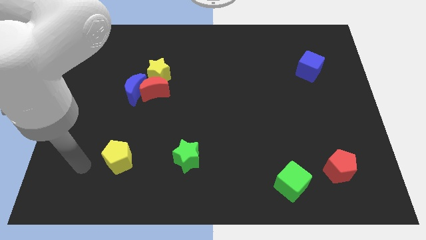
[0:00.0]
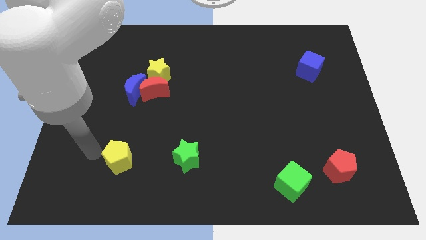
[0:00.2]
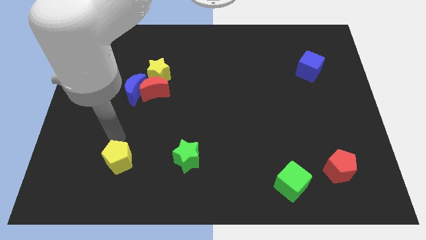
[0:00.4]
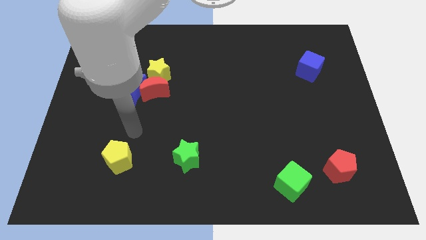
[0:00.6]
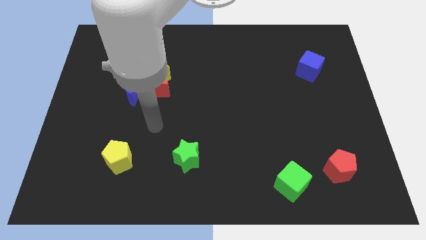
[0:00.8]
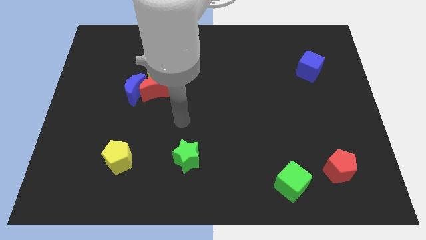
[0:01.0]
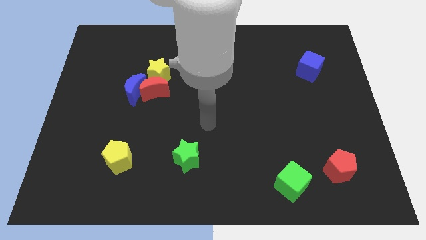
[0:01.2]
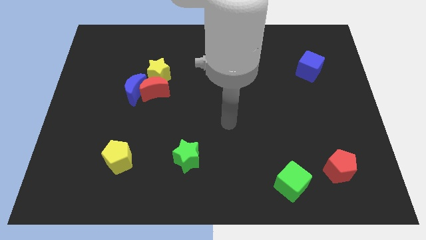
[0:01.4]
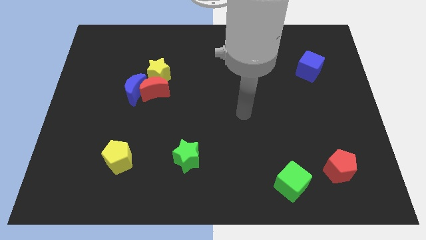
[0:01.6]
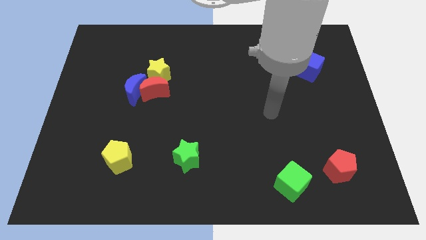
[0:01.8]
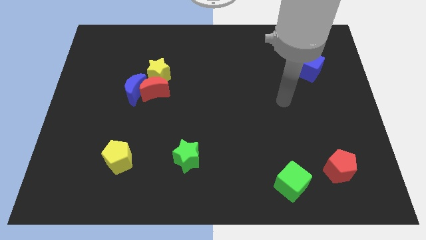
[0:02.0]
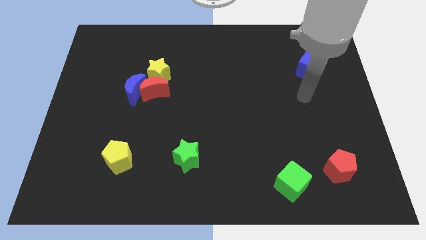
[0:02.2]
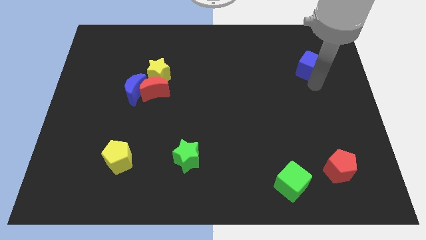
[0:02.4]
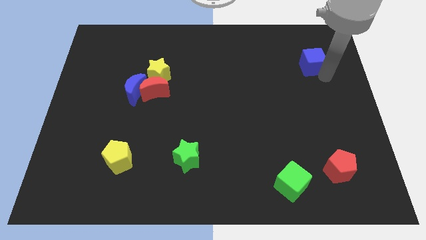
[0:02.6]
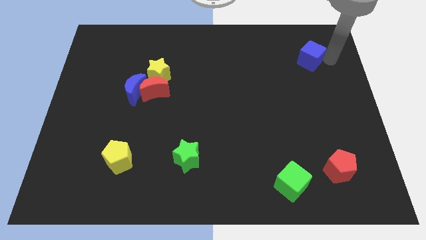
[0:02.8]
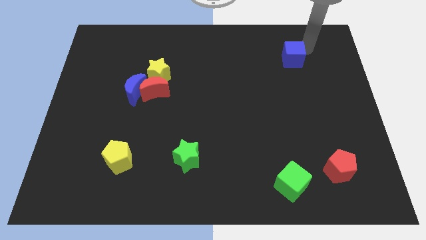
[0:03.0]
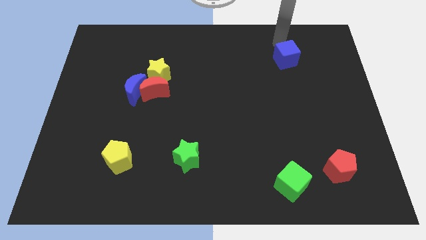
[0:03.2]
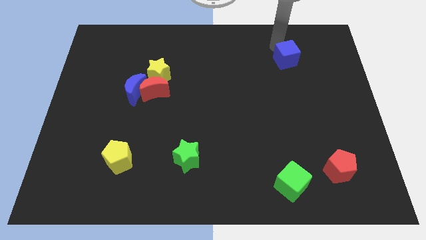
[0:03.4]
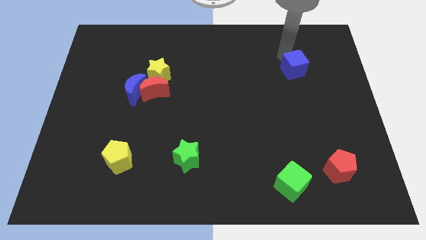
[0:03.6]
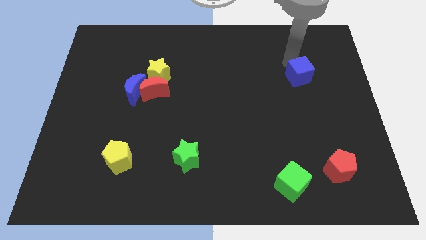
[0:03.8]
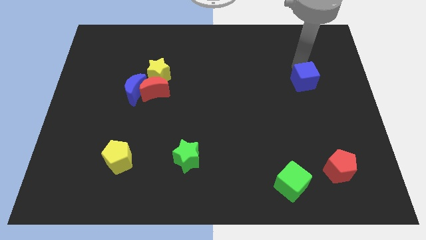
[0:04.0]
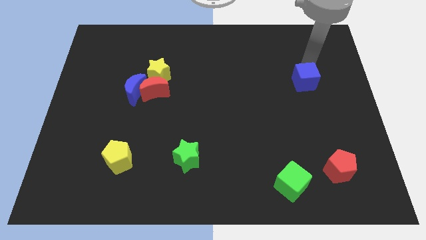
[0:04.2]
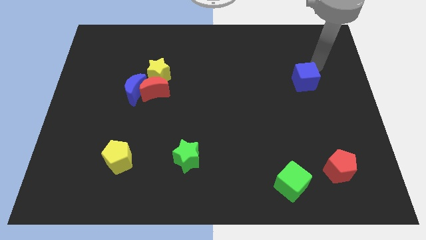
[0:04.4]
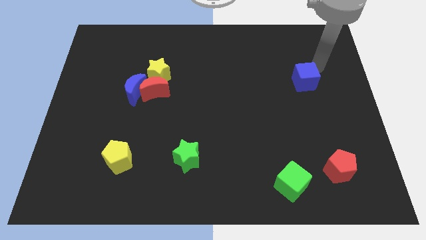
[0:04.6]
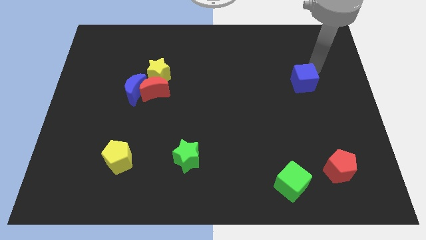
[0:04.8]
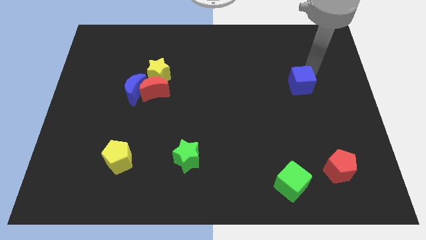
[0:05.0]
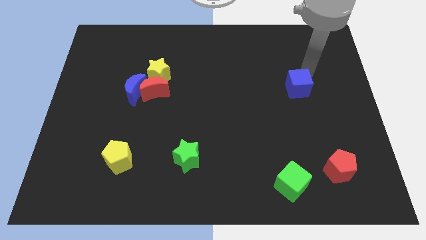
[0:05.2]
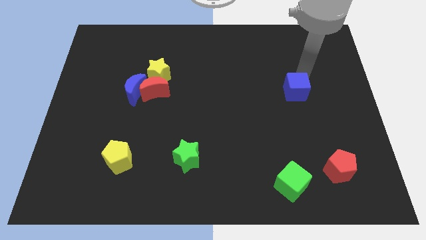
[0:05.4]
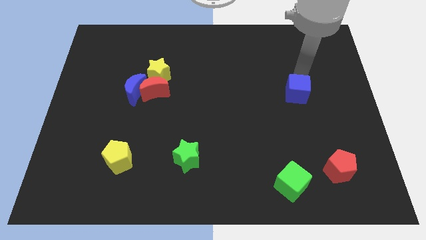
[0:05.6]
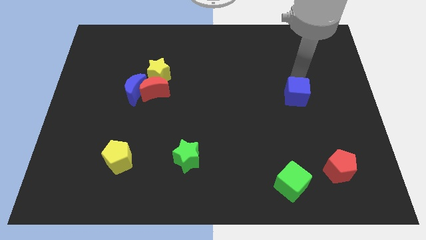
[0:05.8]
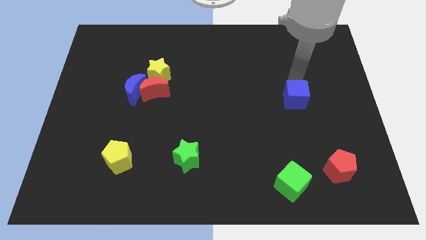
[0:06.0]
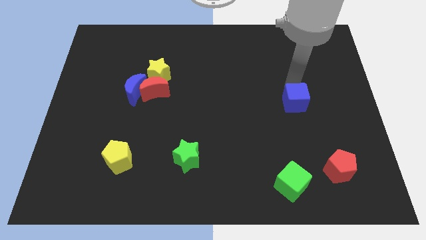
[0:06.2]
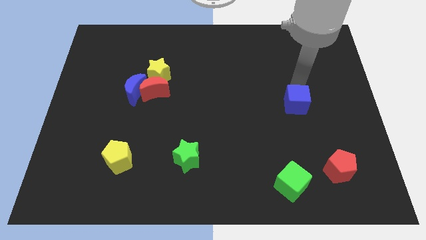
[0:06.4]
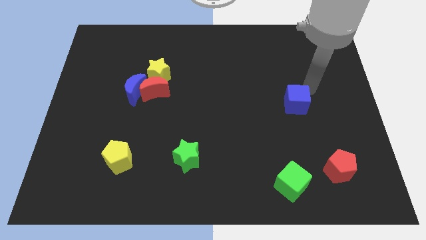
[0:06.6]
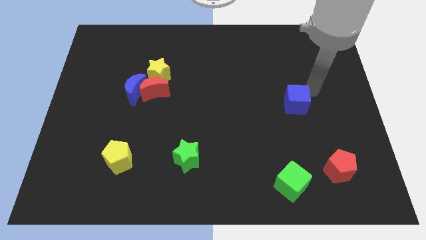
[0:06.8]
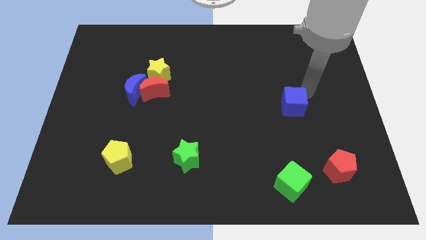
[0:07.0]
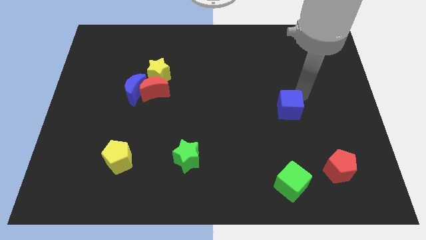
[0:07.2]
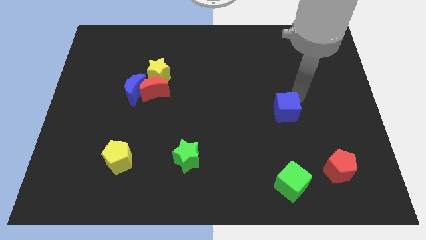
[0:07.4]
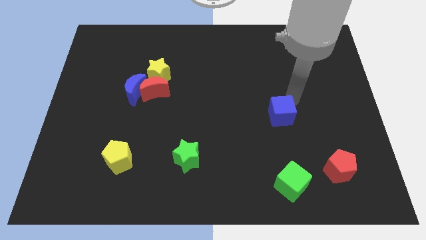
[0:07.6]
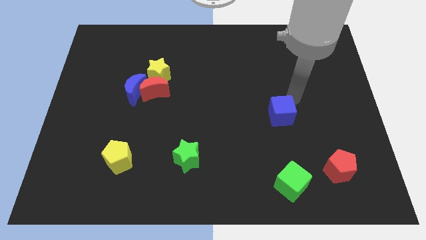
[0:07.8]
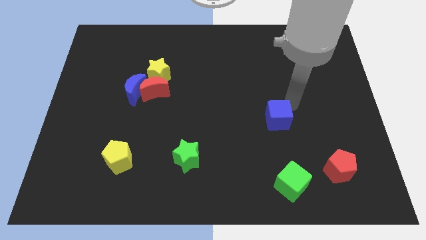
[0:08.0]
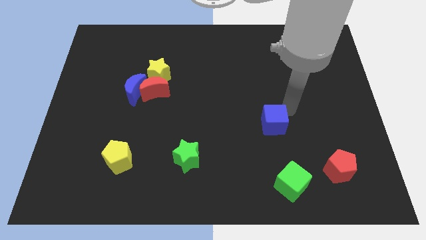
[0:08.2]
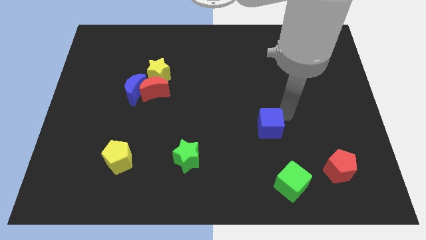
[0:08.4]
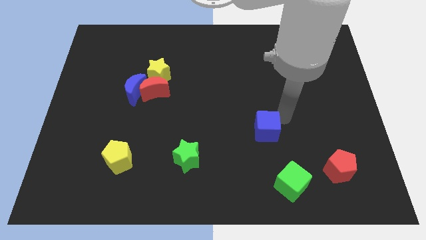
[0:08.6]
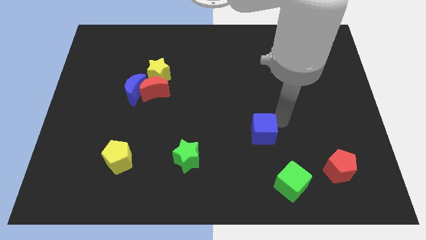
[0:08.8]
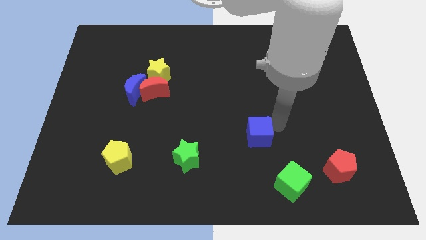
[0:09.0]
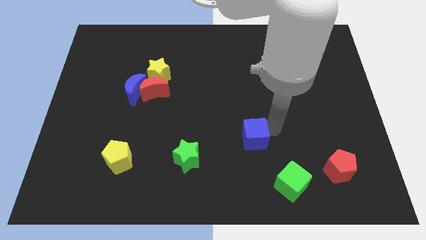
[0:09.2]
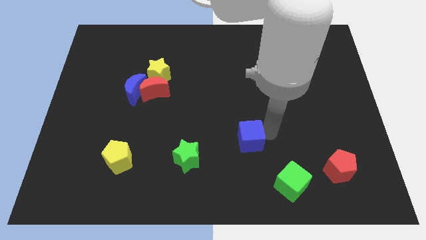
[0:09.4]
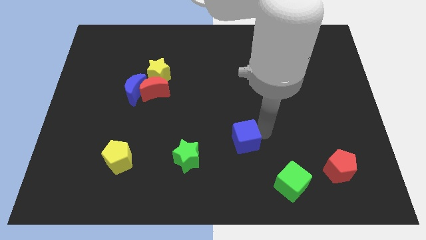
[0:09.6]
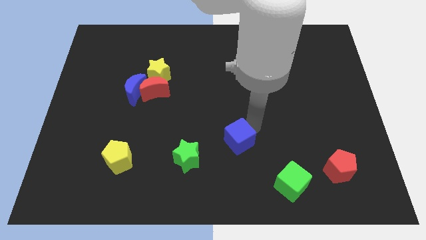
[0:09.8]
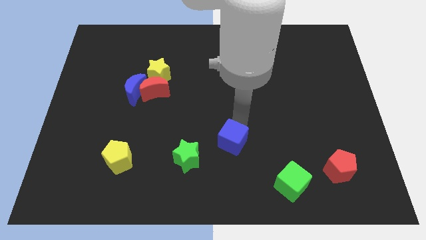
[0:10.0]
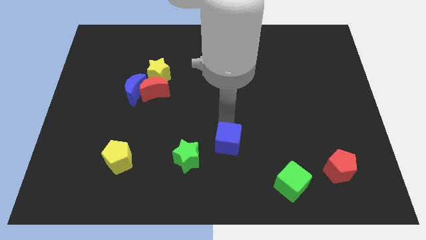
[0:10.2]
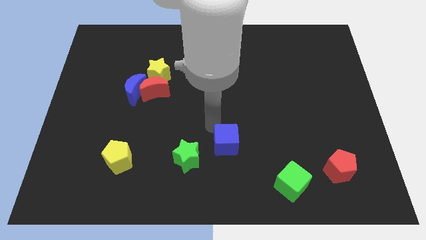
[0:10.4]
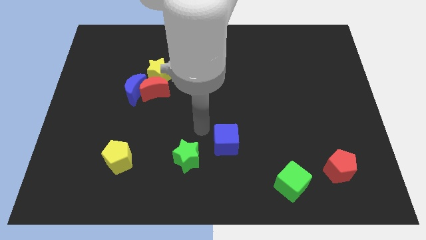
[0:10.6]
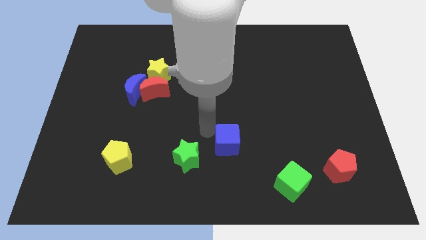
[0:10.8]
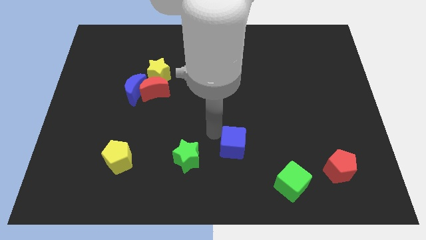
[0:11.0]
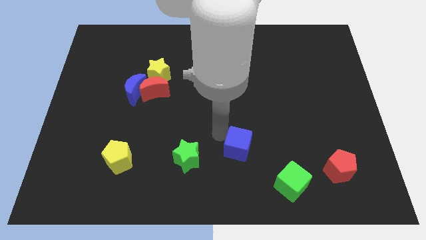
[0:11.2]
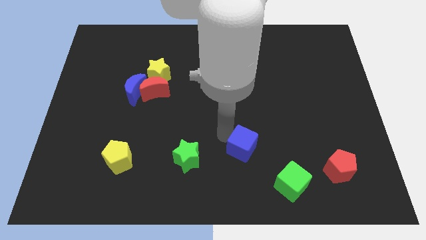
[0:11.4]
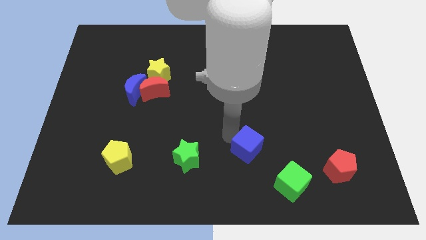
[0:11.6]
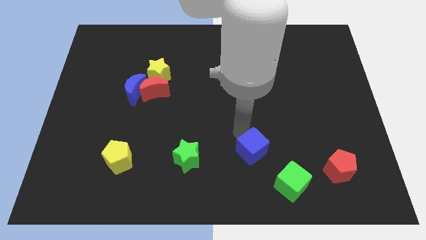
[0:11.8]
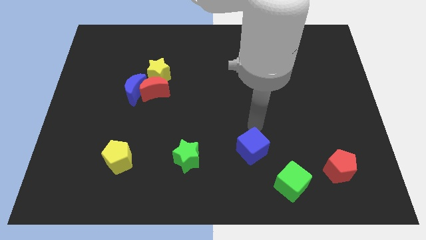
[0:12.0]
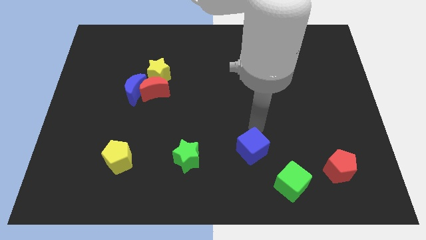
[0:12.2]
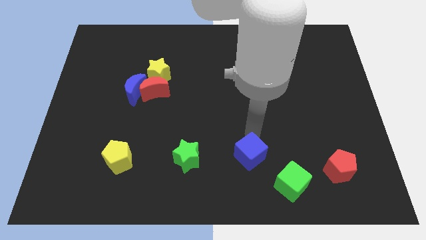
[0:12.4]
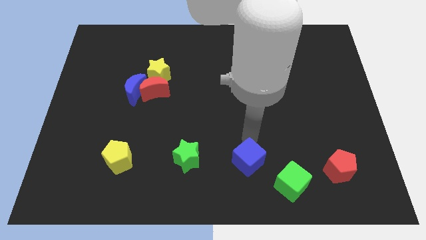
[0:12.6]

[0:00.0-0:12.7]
slide the blue cube to the bottom side

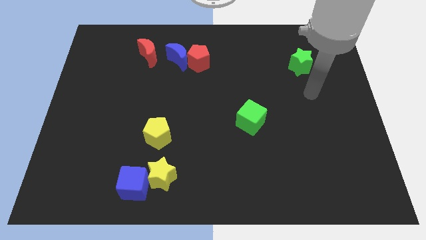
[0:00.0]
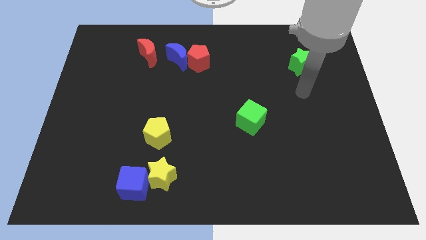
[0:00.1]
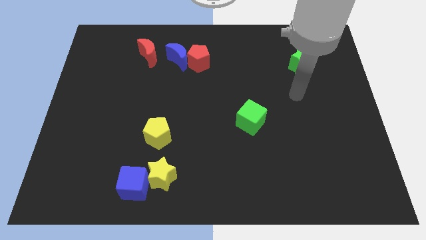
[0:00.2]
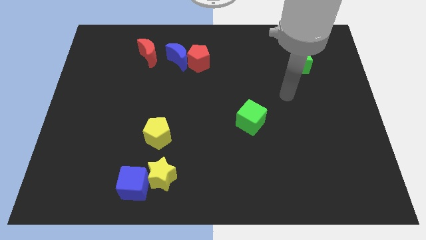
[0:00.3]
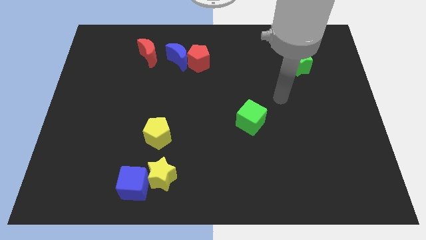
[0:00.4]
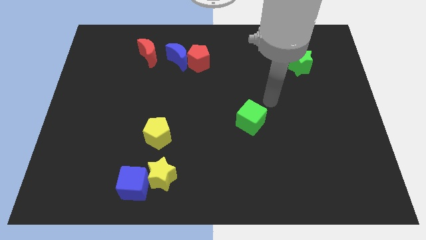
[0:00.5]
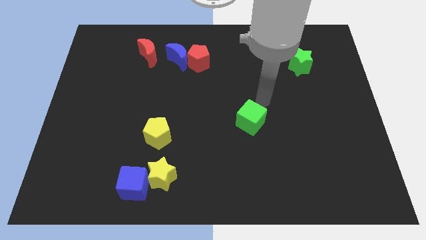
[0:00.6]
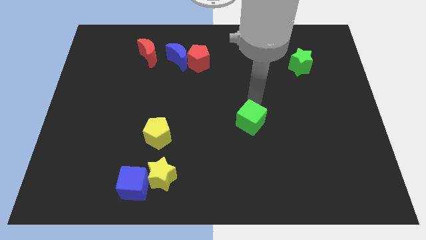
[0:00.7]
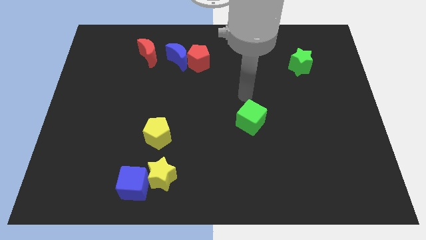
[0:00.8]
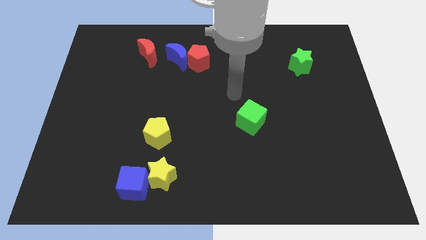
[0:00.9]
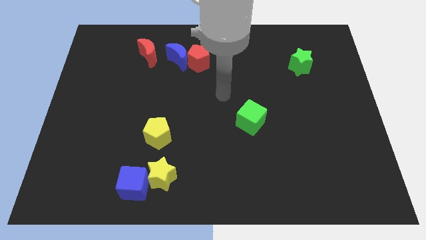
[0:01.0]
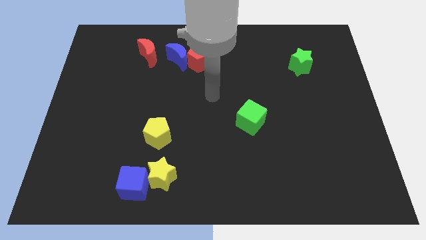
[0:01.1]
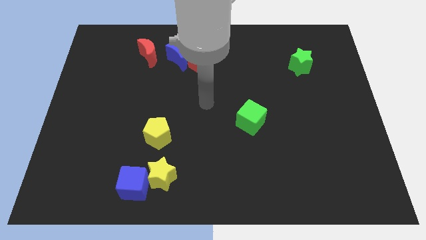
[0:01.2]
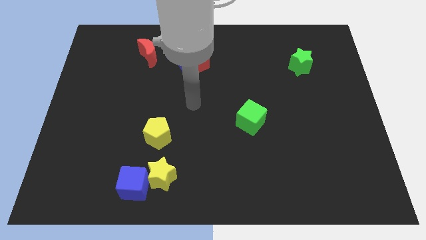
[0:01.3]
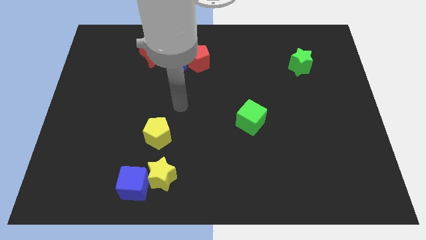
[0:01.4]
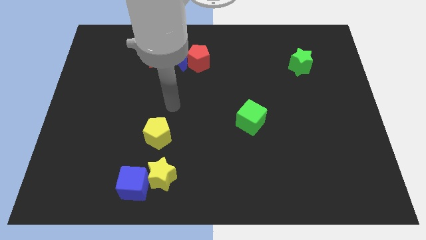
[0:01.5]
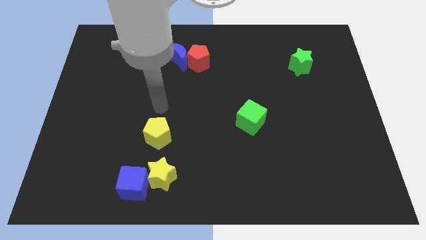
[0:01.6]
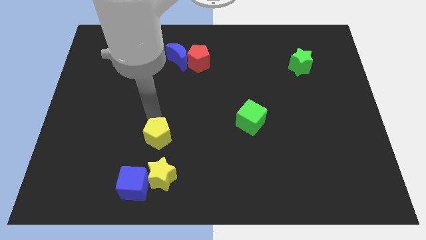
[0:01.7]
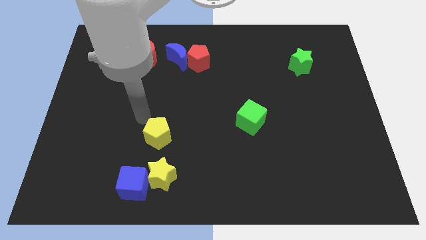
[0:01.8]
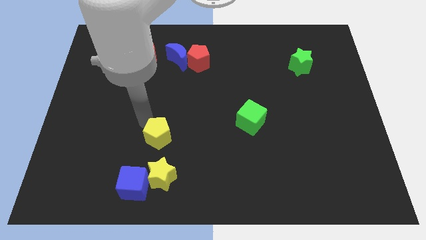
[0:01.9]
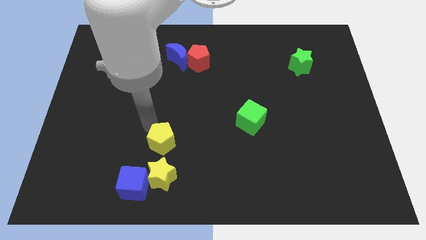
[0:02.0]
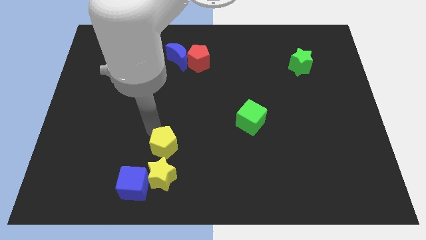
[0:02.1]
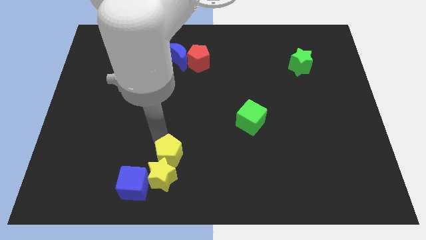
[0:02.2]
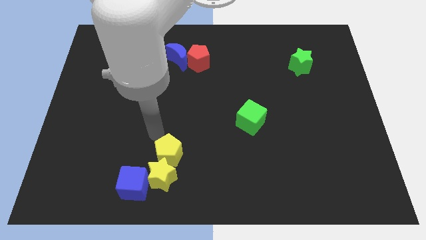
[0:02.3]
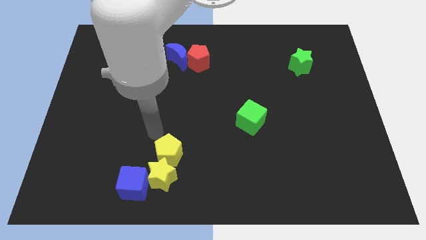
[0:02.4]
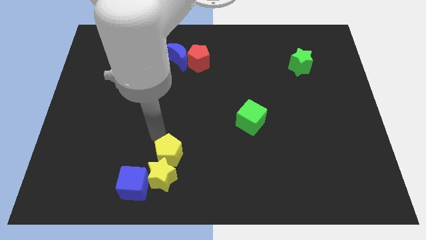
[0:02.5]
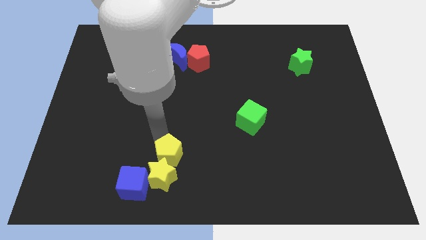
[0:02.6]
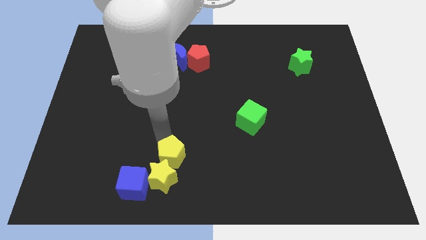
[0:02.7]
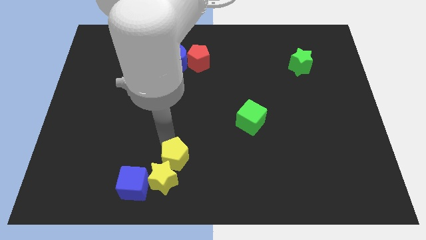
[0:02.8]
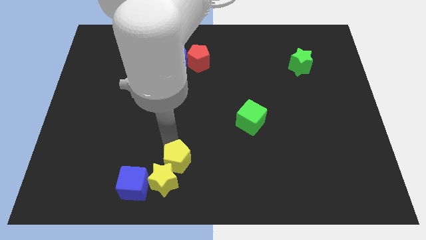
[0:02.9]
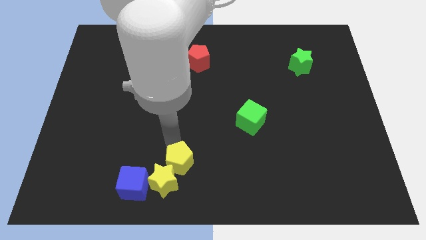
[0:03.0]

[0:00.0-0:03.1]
put the yellow pentagon to the bottom side
